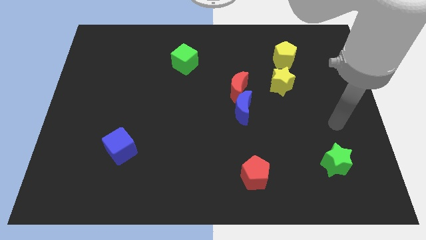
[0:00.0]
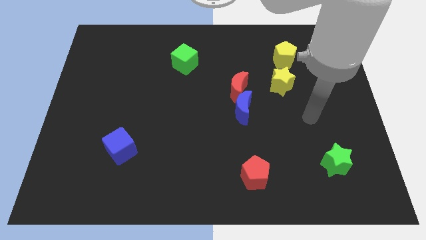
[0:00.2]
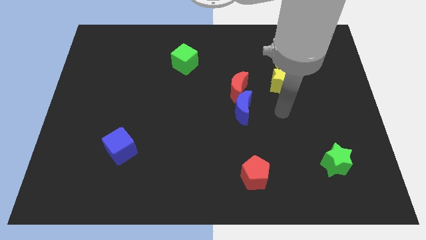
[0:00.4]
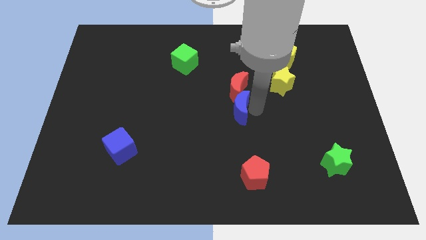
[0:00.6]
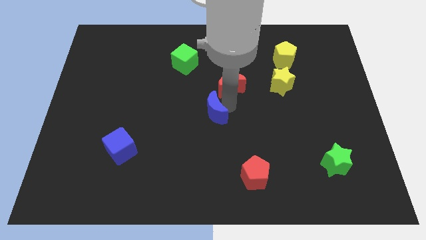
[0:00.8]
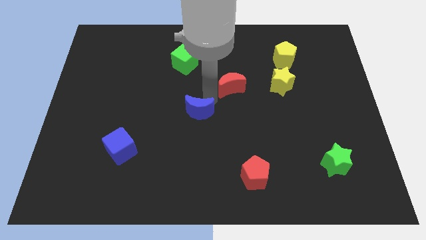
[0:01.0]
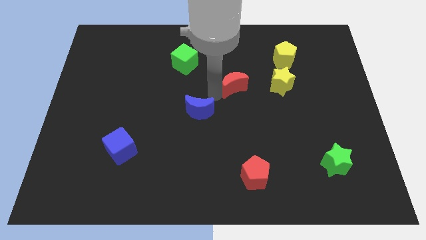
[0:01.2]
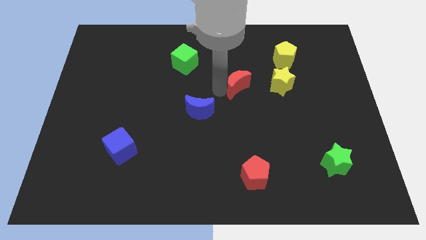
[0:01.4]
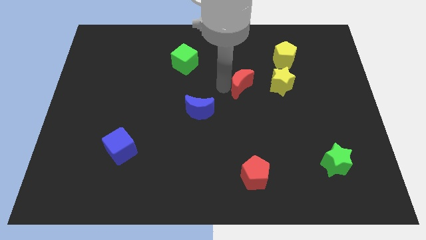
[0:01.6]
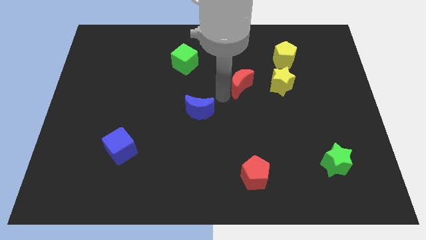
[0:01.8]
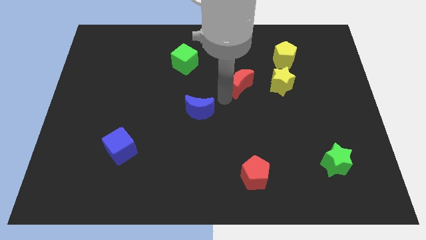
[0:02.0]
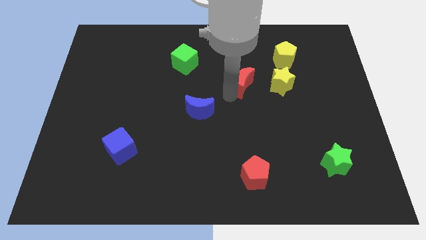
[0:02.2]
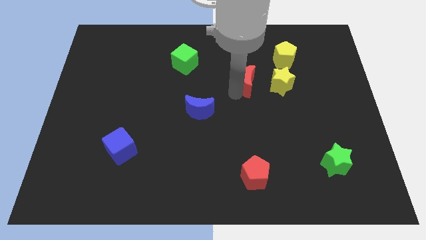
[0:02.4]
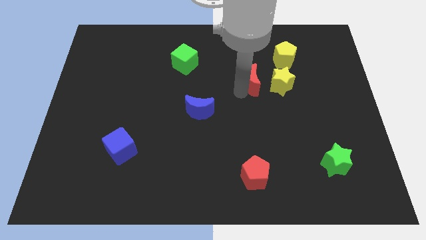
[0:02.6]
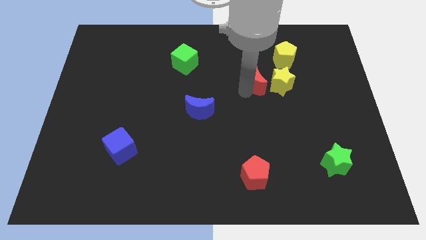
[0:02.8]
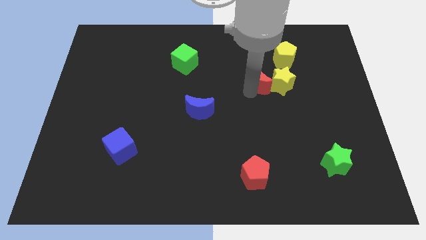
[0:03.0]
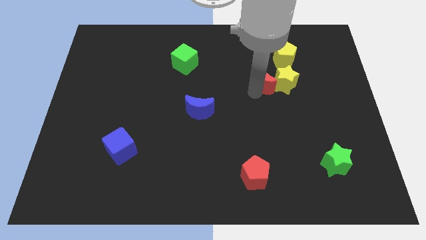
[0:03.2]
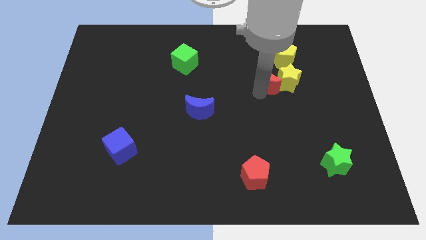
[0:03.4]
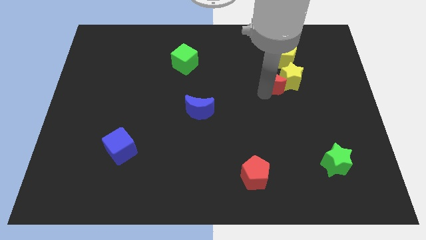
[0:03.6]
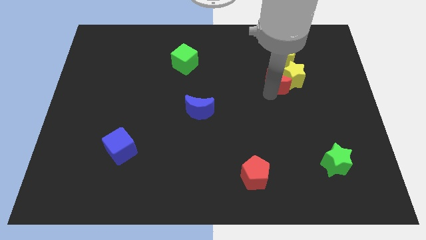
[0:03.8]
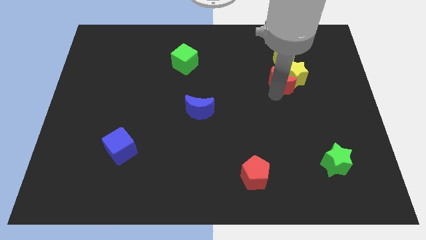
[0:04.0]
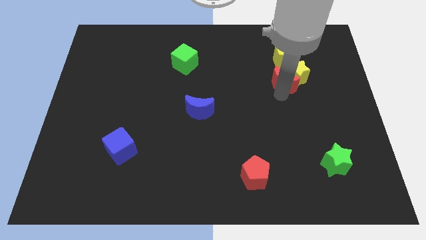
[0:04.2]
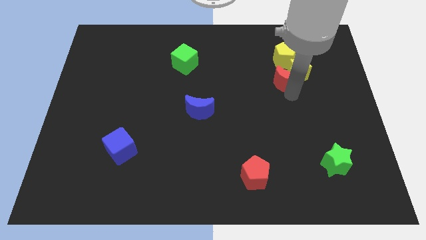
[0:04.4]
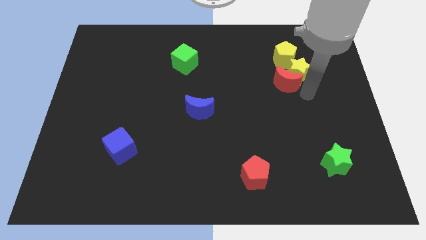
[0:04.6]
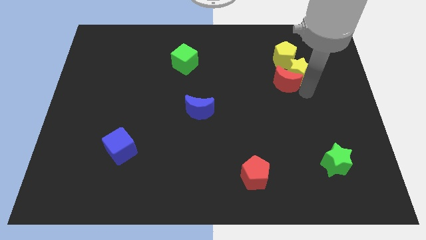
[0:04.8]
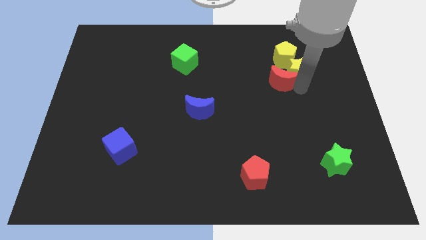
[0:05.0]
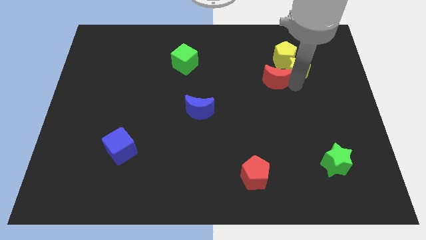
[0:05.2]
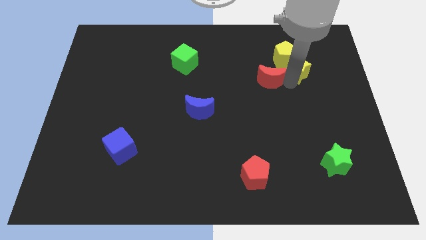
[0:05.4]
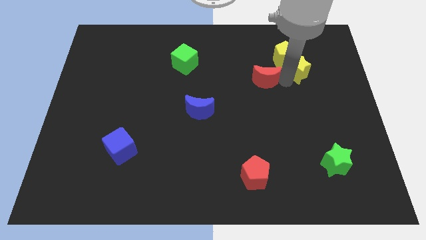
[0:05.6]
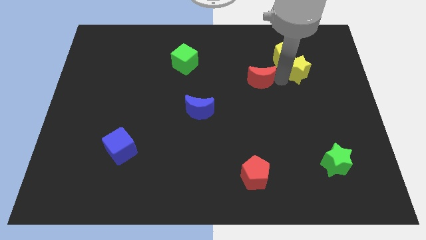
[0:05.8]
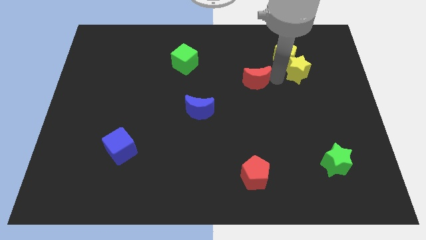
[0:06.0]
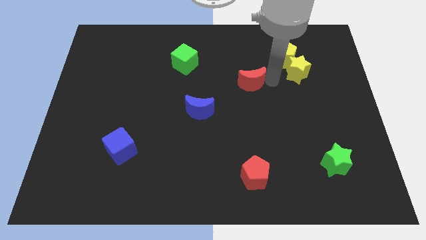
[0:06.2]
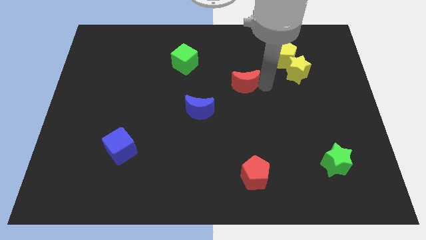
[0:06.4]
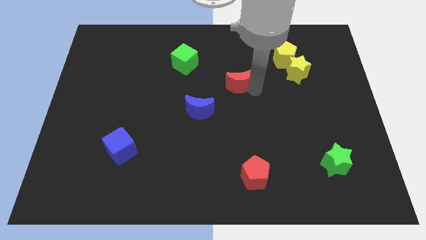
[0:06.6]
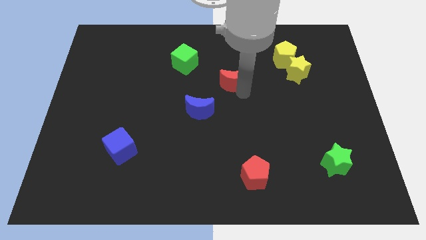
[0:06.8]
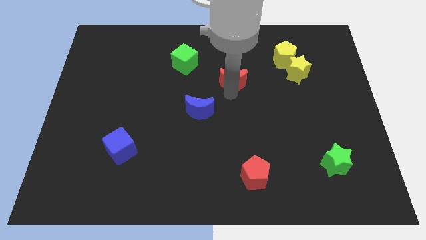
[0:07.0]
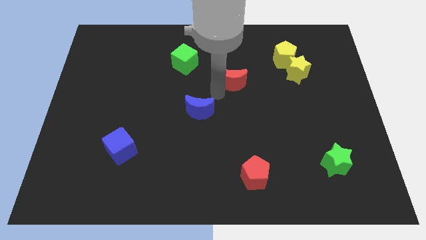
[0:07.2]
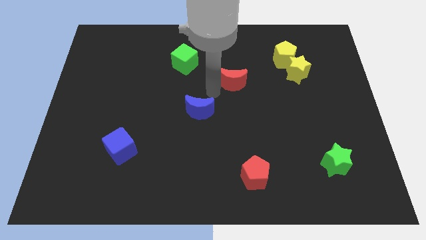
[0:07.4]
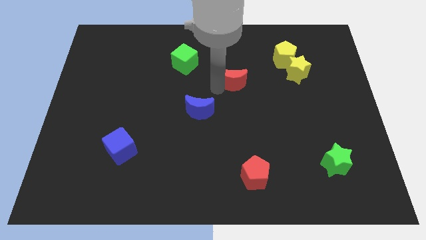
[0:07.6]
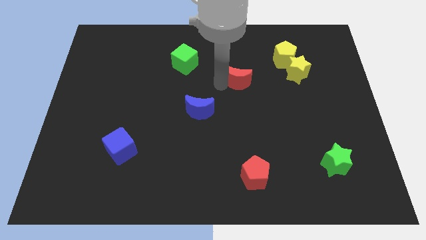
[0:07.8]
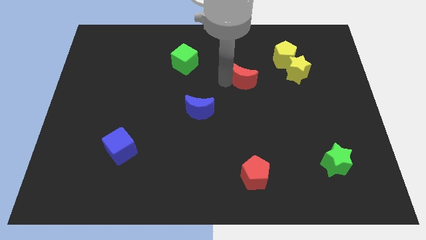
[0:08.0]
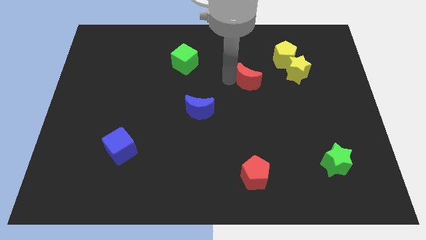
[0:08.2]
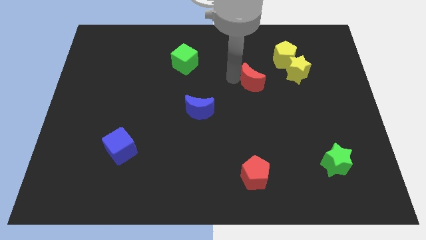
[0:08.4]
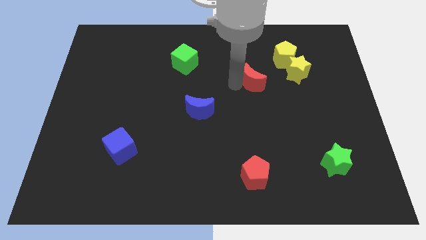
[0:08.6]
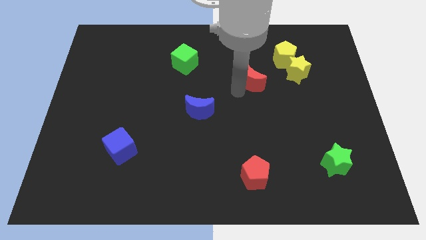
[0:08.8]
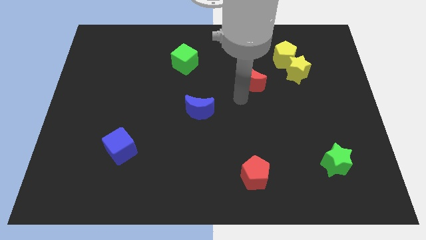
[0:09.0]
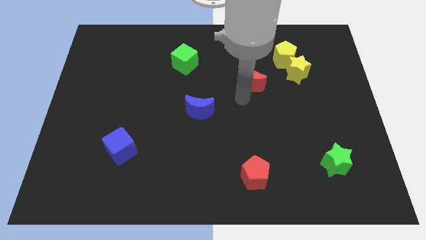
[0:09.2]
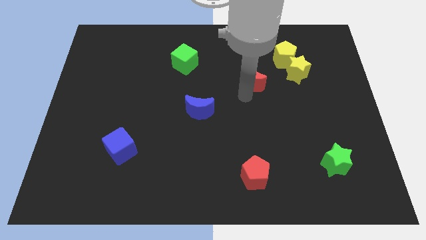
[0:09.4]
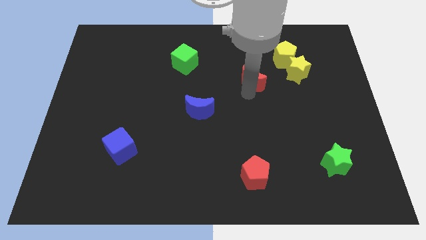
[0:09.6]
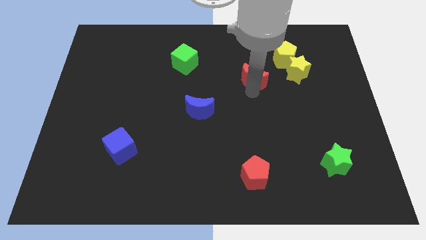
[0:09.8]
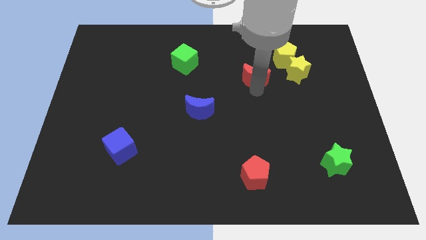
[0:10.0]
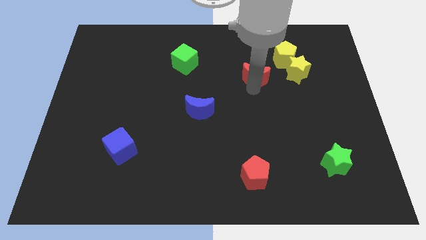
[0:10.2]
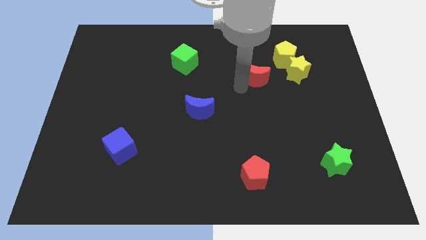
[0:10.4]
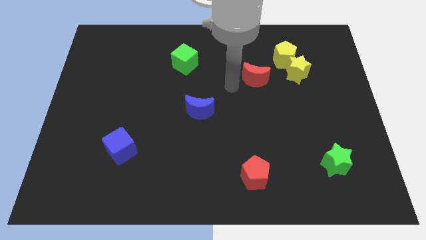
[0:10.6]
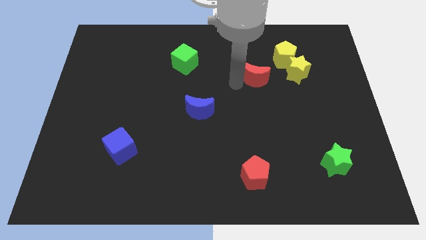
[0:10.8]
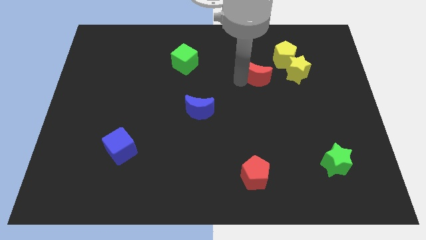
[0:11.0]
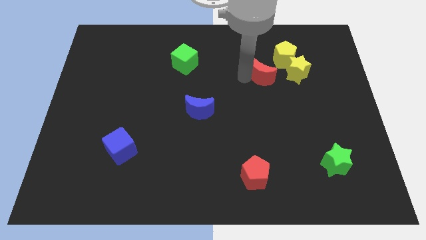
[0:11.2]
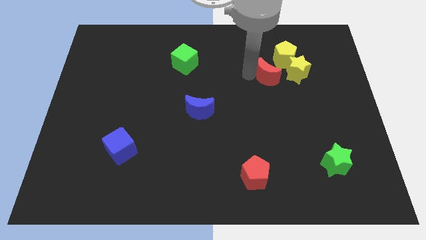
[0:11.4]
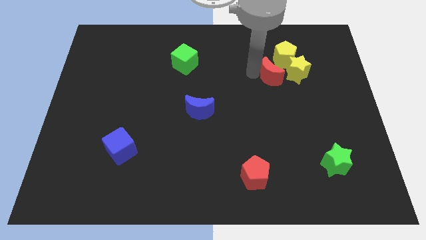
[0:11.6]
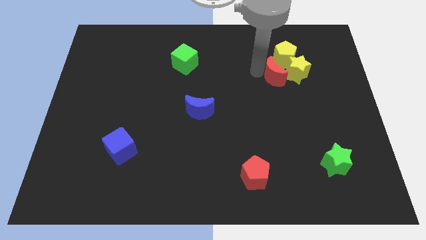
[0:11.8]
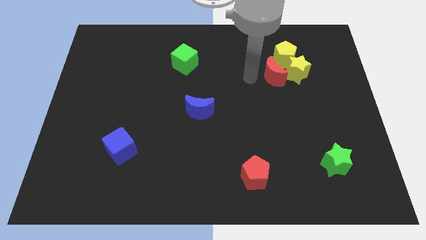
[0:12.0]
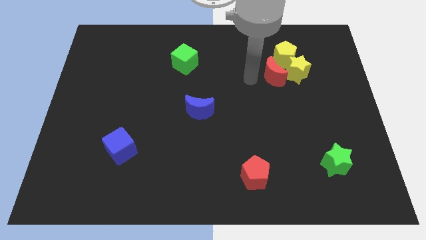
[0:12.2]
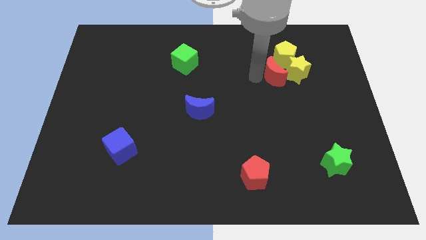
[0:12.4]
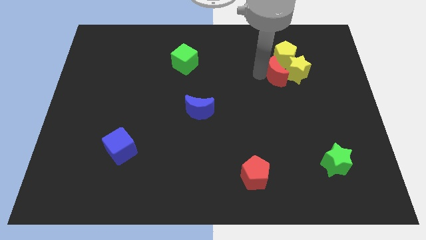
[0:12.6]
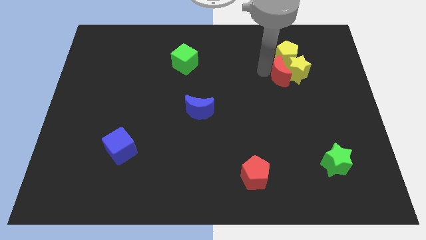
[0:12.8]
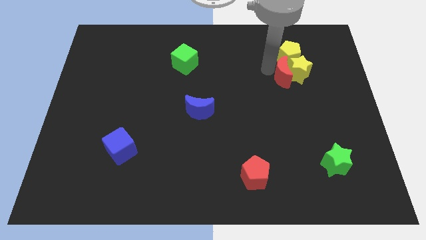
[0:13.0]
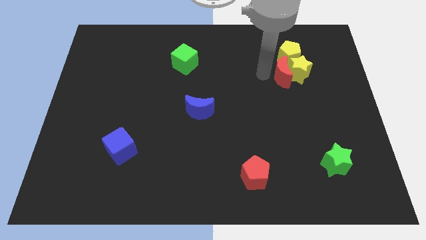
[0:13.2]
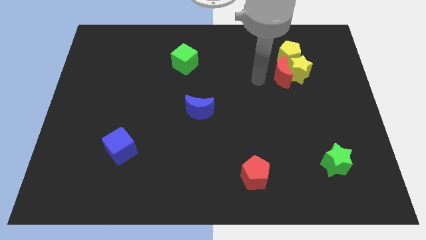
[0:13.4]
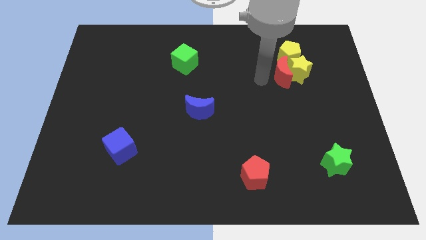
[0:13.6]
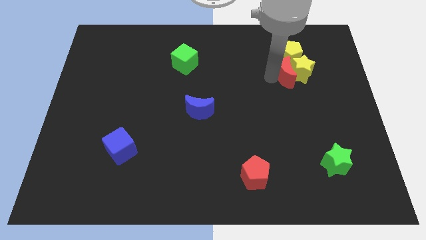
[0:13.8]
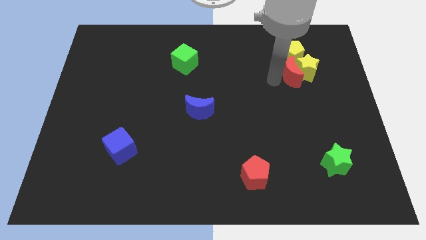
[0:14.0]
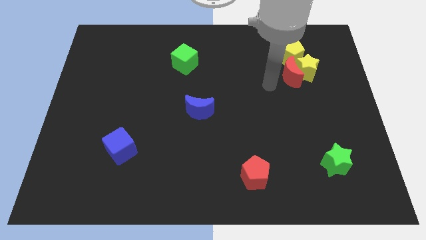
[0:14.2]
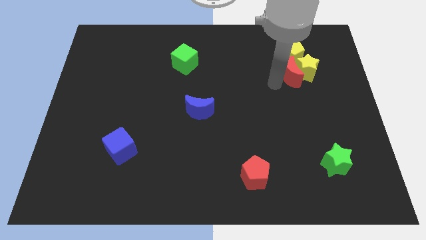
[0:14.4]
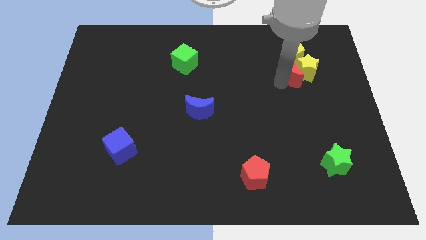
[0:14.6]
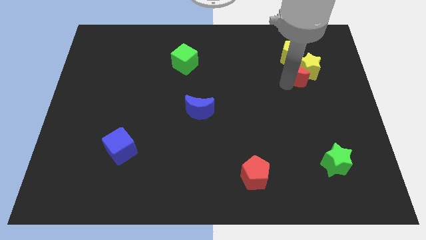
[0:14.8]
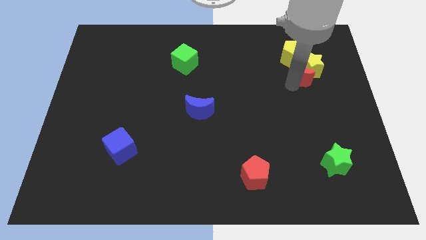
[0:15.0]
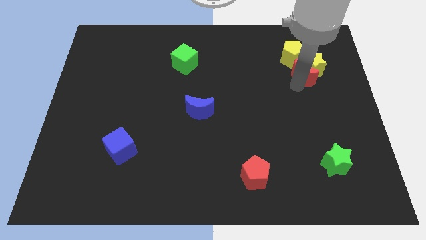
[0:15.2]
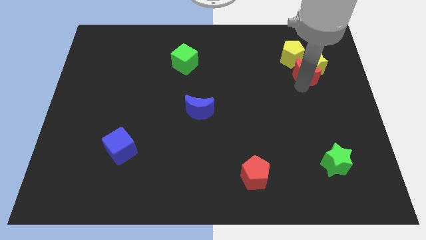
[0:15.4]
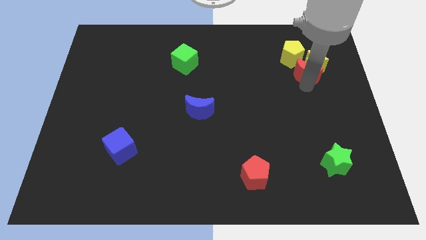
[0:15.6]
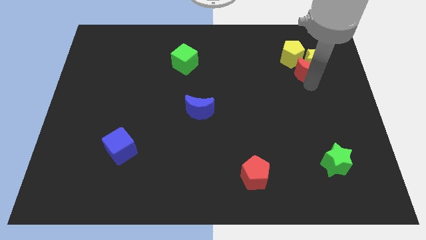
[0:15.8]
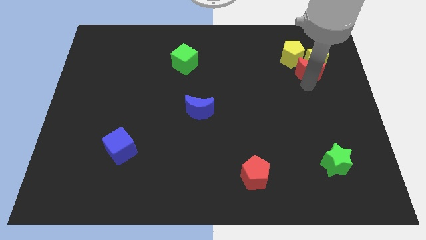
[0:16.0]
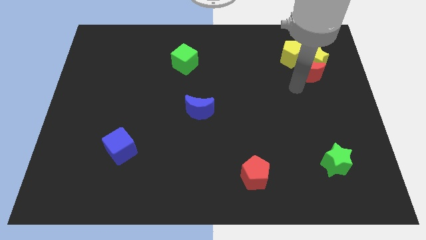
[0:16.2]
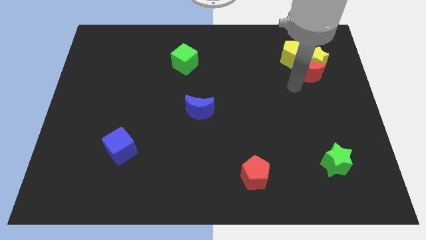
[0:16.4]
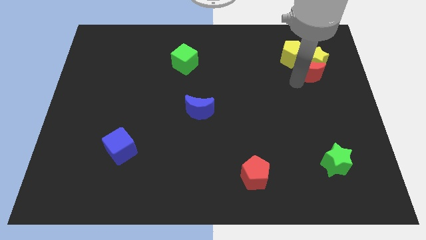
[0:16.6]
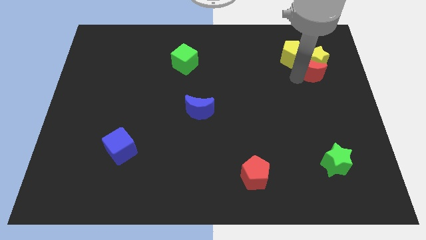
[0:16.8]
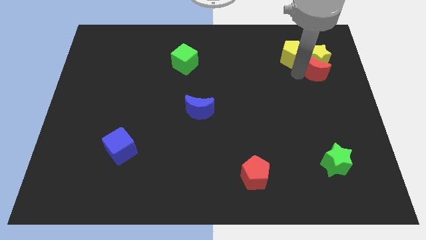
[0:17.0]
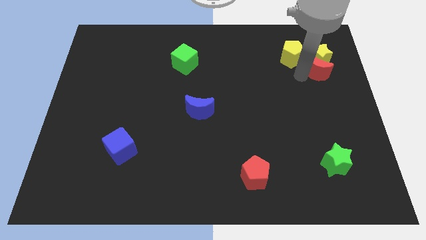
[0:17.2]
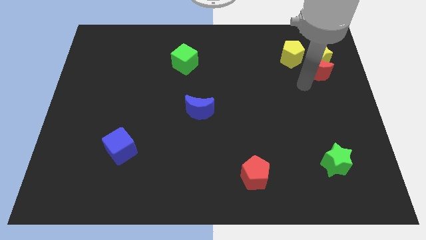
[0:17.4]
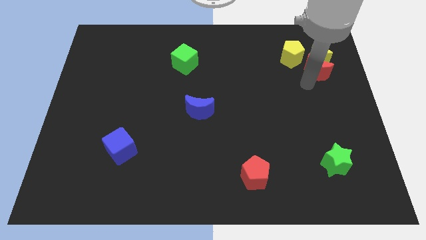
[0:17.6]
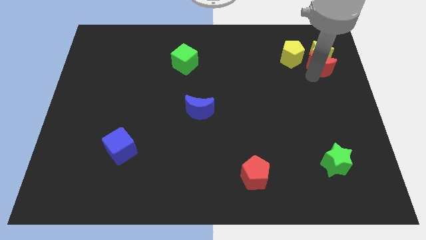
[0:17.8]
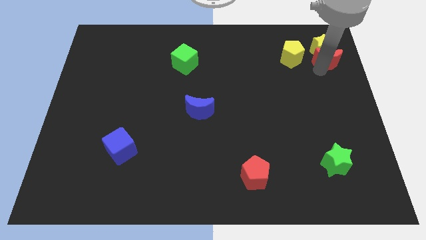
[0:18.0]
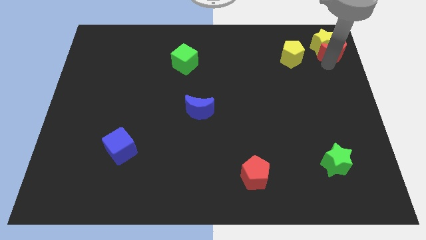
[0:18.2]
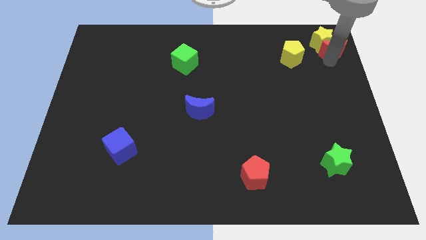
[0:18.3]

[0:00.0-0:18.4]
move the red moon to the upper right corner
